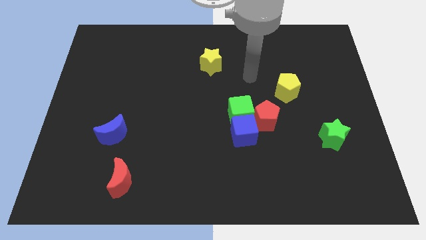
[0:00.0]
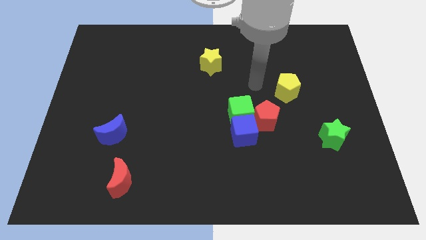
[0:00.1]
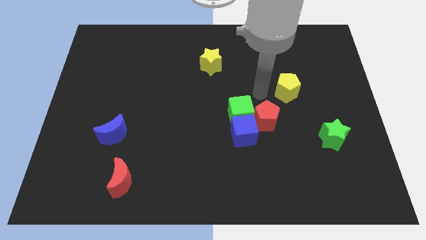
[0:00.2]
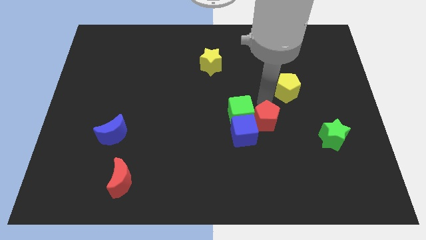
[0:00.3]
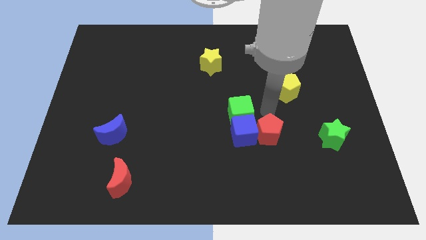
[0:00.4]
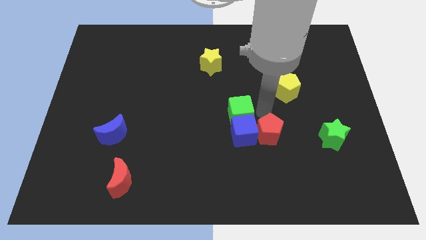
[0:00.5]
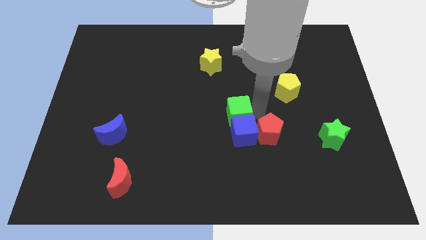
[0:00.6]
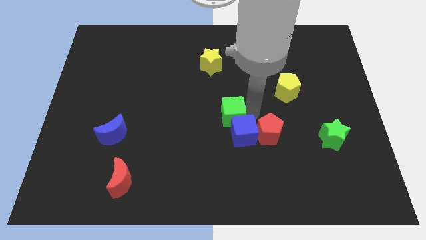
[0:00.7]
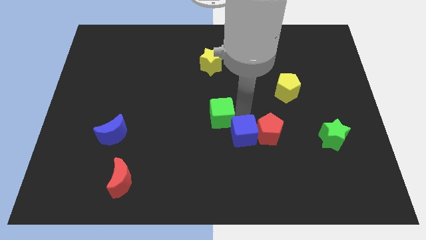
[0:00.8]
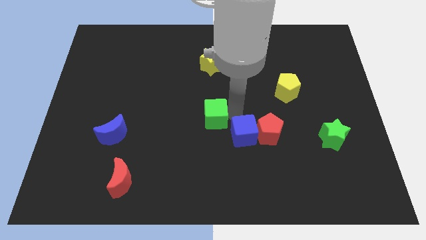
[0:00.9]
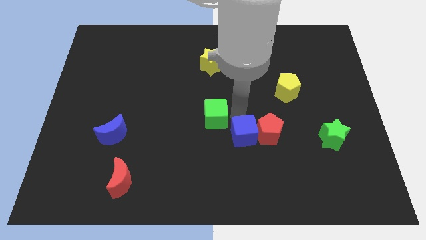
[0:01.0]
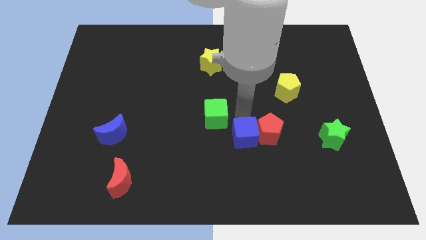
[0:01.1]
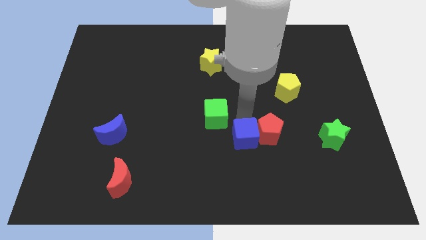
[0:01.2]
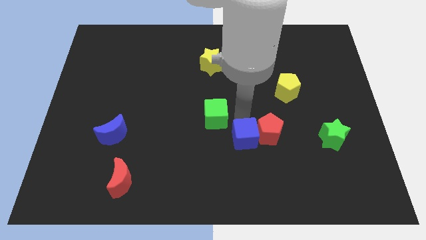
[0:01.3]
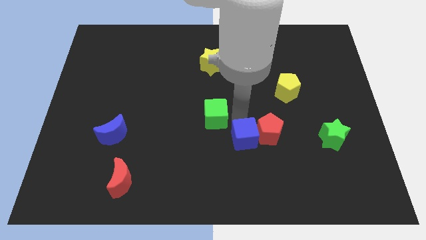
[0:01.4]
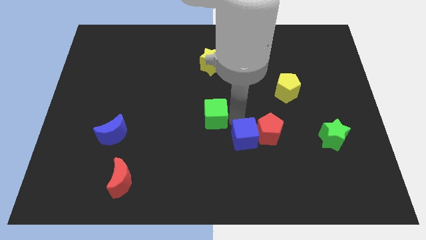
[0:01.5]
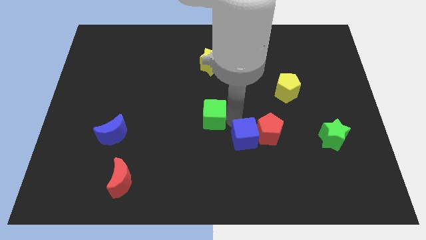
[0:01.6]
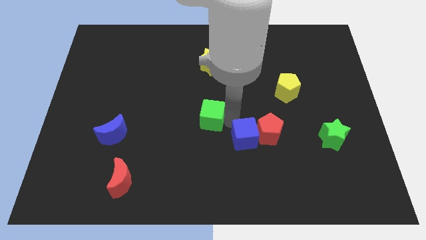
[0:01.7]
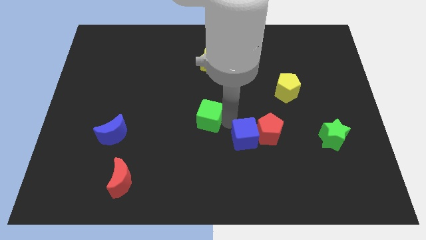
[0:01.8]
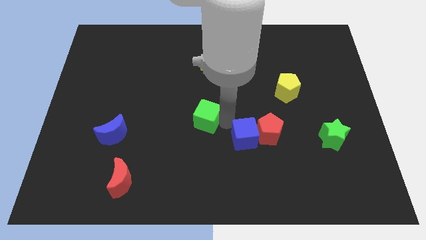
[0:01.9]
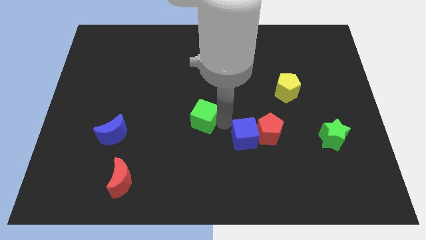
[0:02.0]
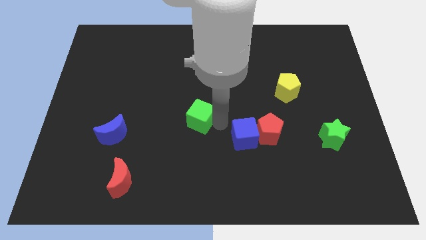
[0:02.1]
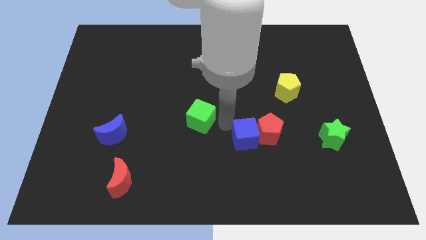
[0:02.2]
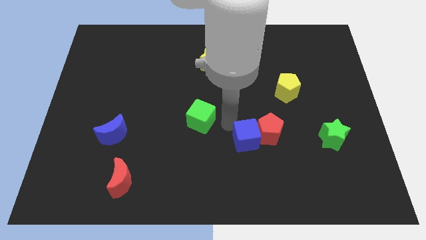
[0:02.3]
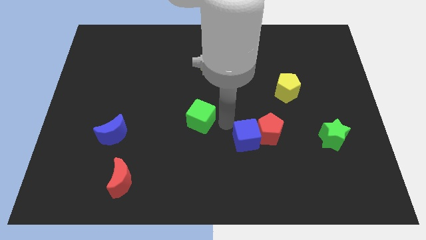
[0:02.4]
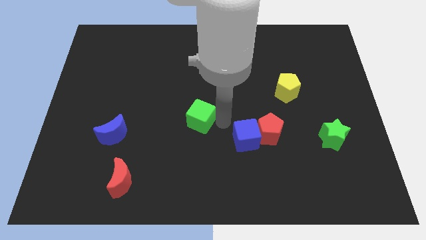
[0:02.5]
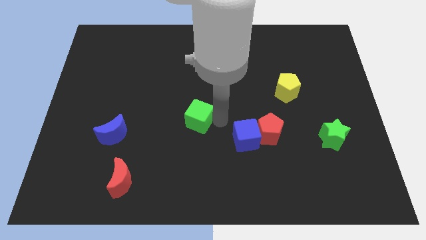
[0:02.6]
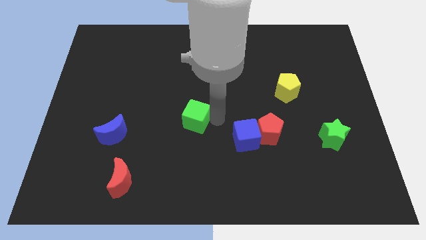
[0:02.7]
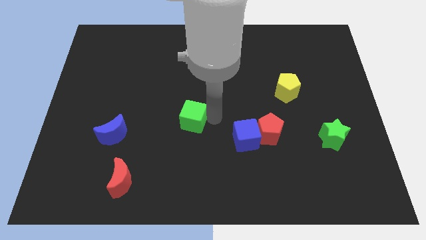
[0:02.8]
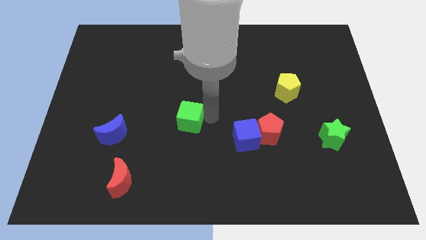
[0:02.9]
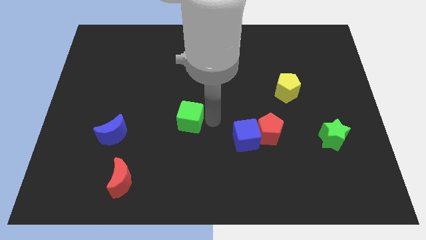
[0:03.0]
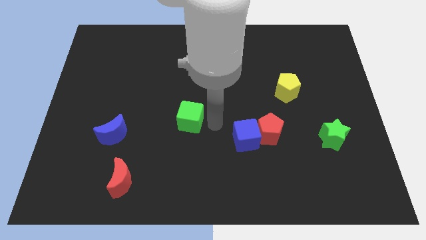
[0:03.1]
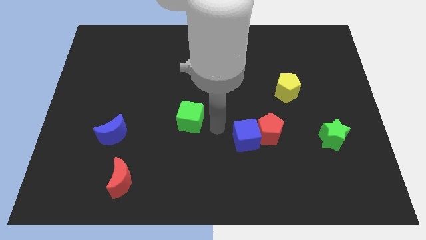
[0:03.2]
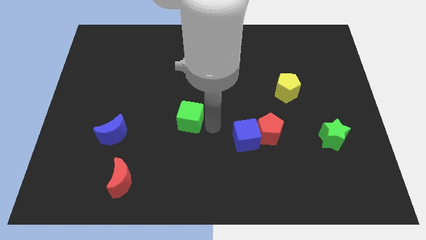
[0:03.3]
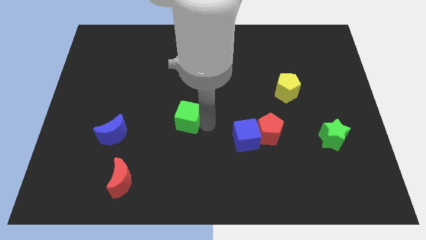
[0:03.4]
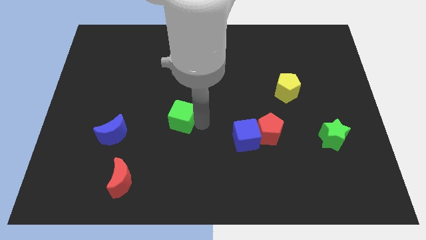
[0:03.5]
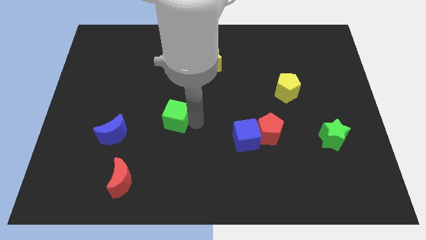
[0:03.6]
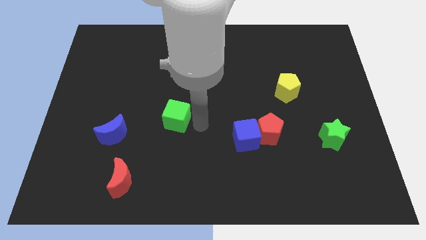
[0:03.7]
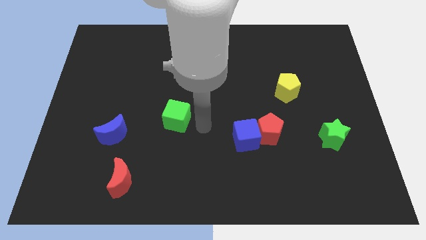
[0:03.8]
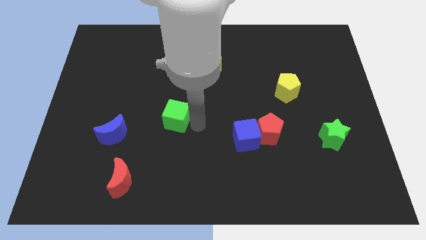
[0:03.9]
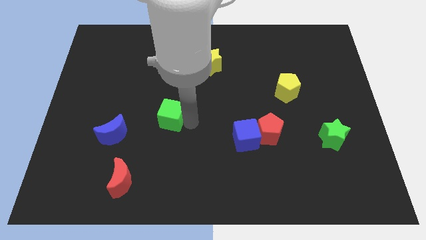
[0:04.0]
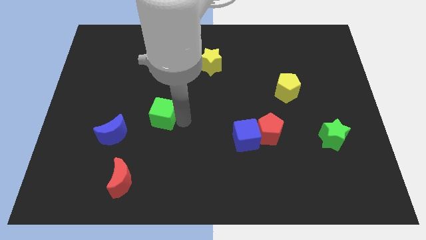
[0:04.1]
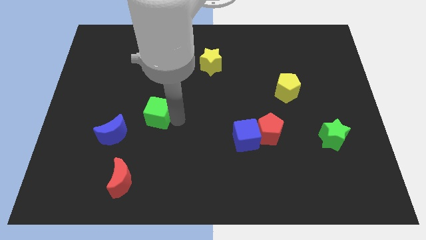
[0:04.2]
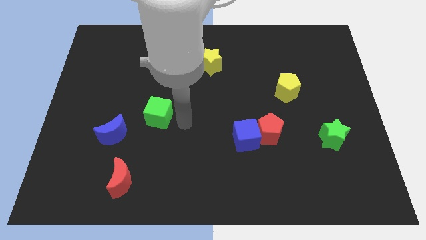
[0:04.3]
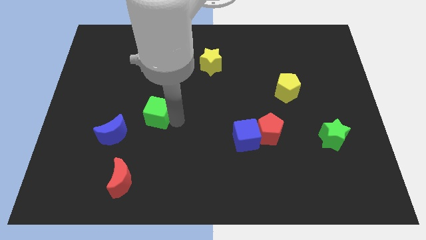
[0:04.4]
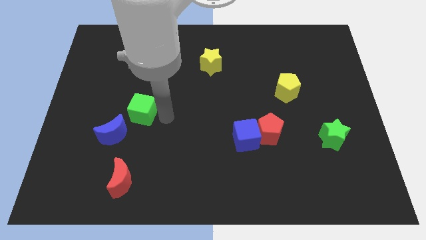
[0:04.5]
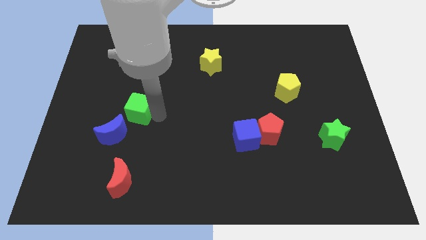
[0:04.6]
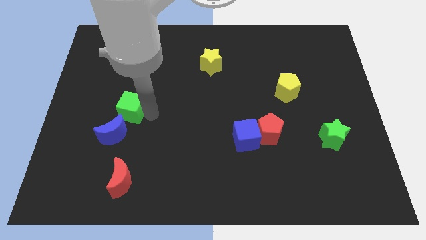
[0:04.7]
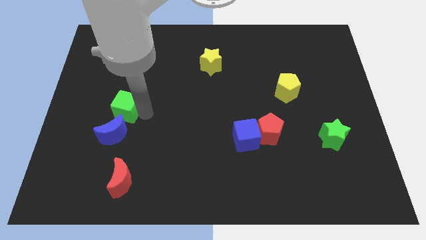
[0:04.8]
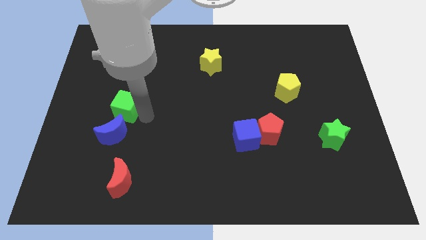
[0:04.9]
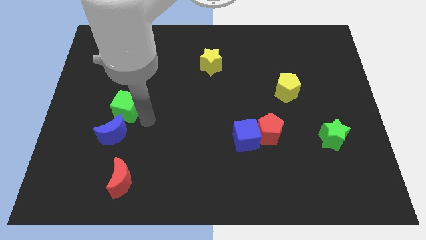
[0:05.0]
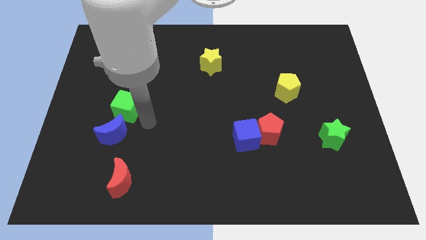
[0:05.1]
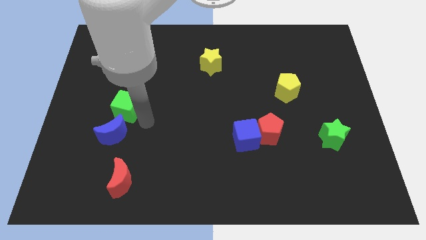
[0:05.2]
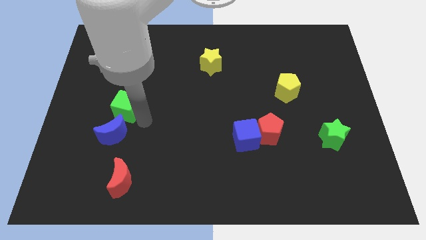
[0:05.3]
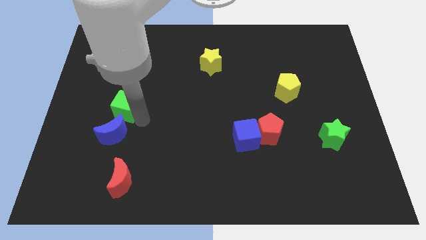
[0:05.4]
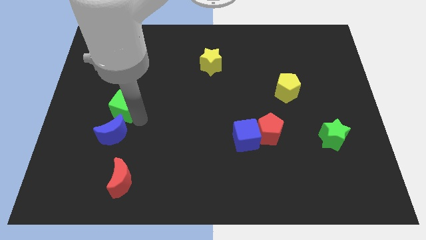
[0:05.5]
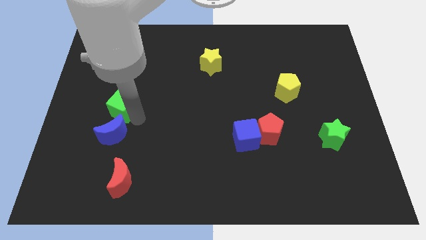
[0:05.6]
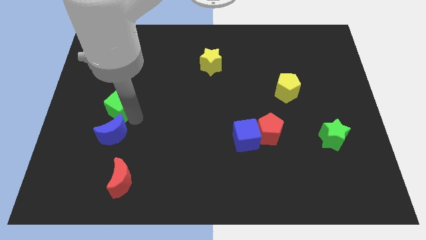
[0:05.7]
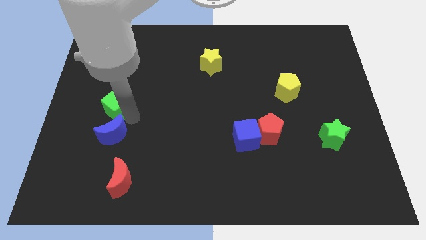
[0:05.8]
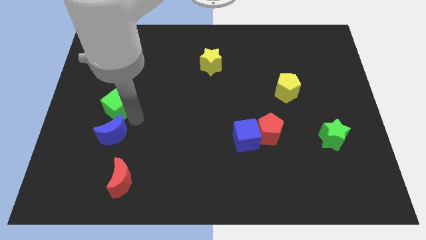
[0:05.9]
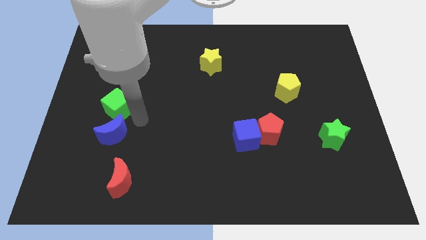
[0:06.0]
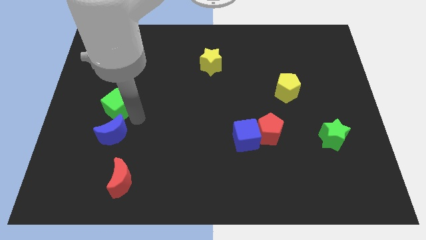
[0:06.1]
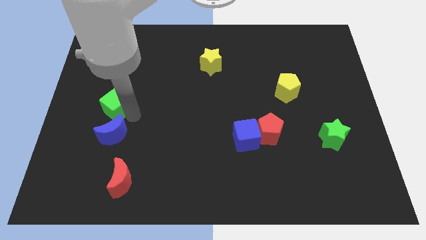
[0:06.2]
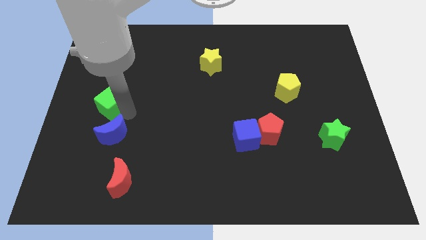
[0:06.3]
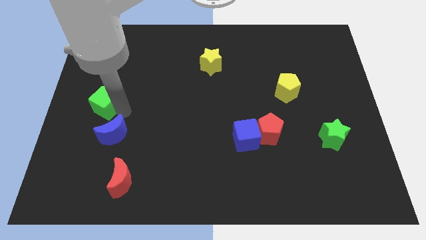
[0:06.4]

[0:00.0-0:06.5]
put the green cube to the left side of the board
